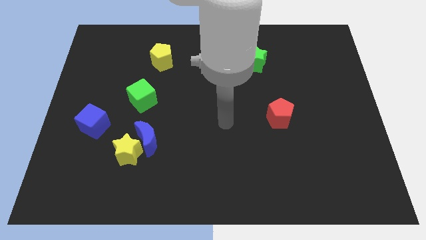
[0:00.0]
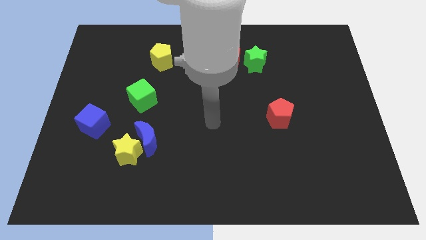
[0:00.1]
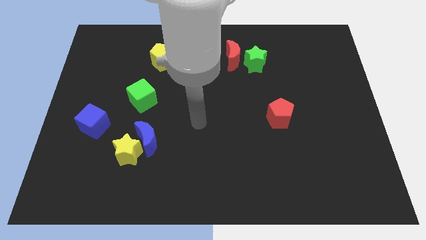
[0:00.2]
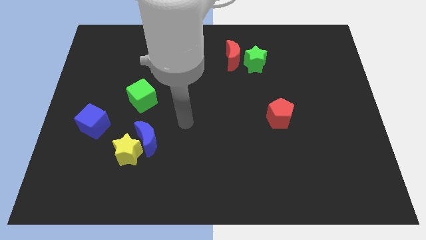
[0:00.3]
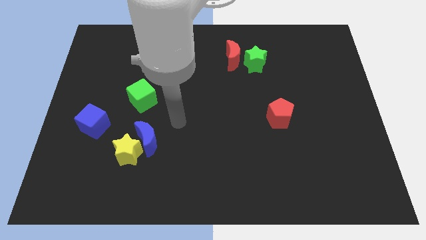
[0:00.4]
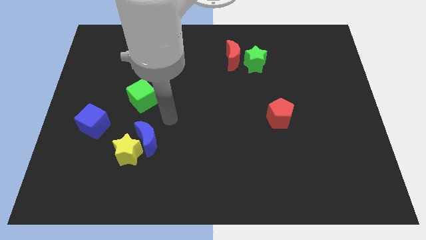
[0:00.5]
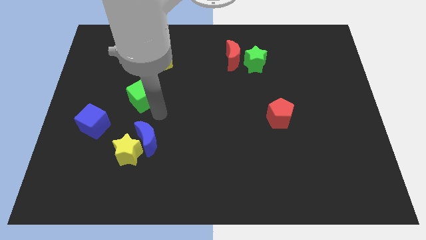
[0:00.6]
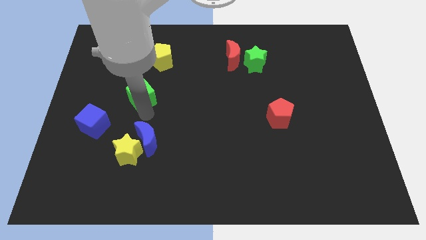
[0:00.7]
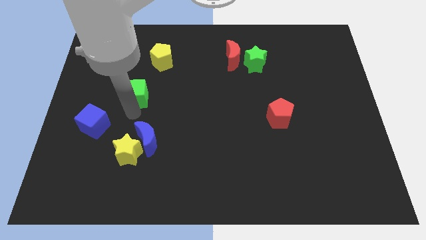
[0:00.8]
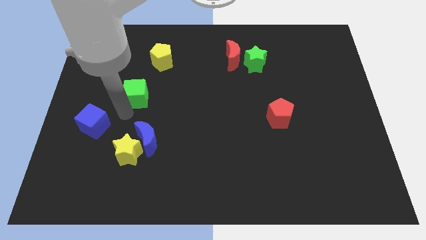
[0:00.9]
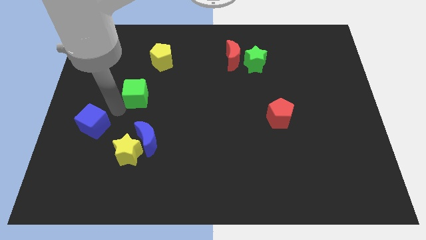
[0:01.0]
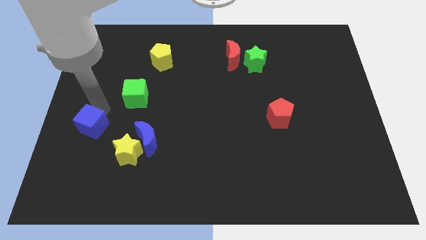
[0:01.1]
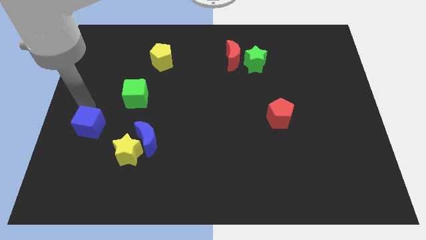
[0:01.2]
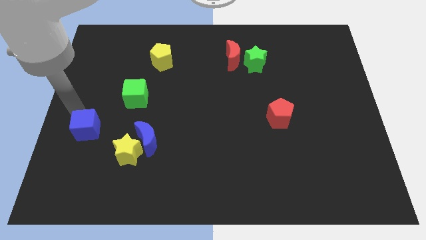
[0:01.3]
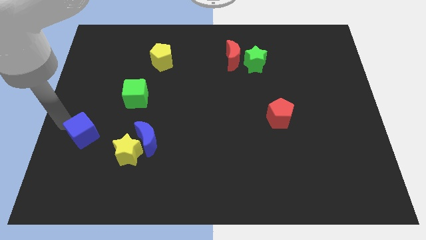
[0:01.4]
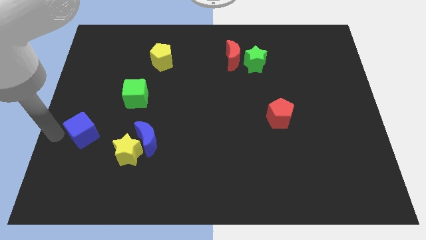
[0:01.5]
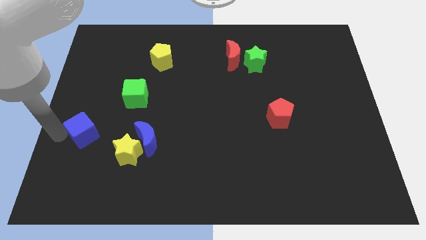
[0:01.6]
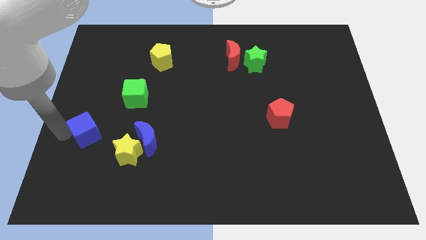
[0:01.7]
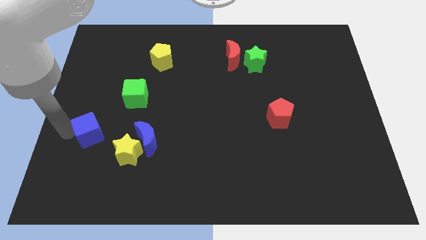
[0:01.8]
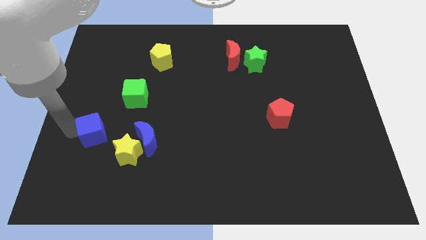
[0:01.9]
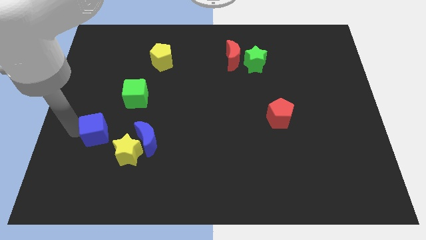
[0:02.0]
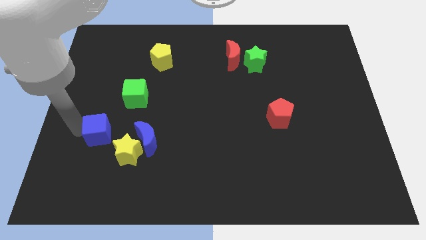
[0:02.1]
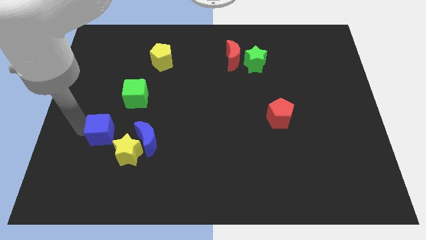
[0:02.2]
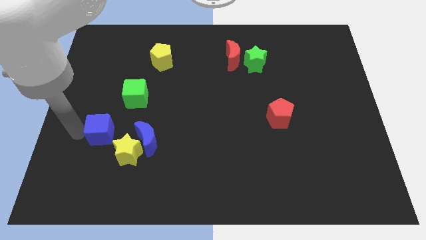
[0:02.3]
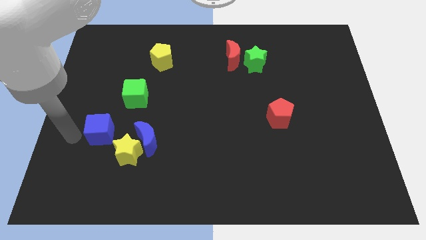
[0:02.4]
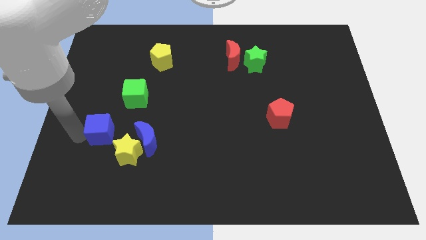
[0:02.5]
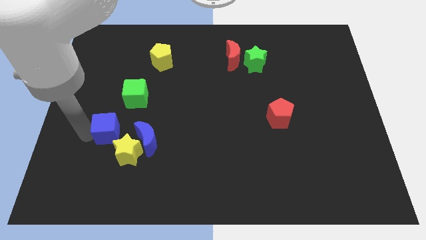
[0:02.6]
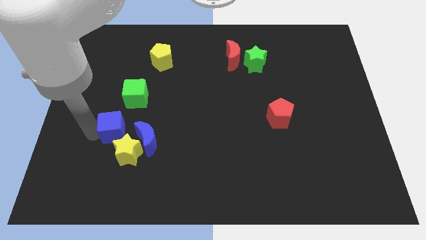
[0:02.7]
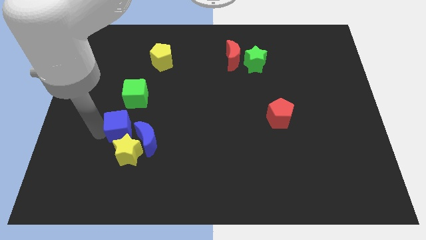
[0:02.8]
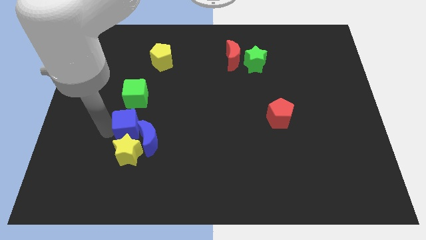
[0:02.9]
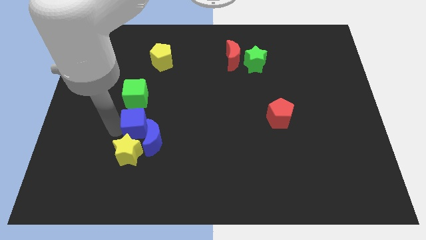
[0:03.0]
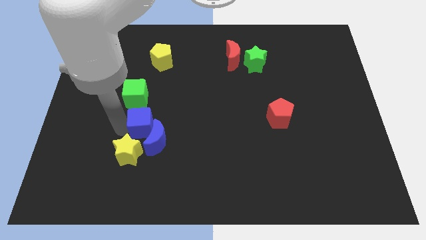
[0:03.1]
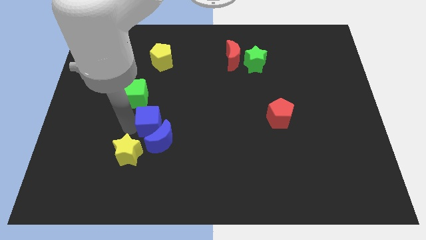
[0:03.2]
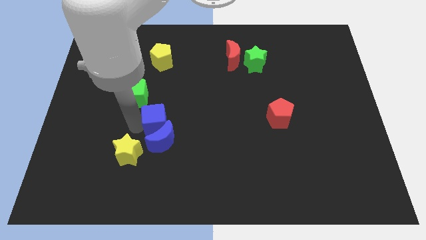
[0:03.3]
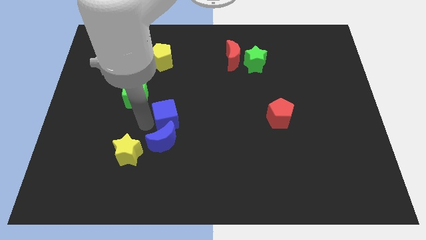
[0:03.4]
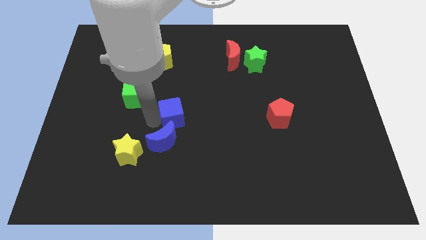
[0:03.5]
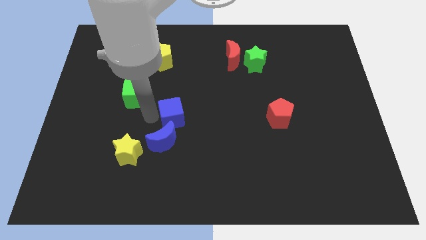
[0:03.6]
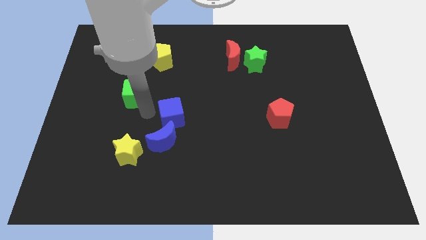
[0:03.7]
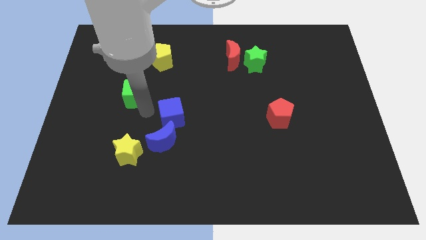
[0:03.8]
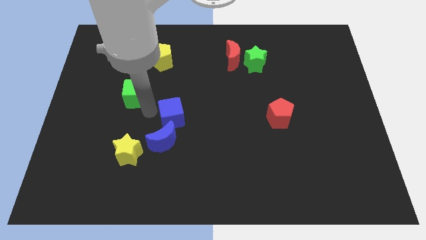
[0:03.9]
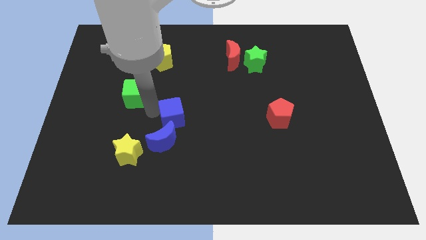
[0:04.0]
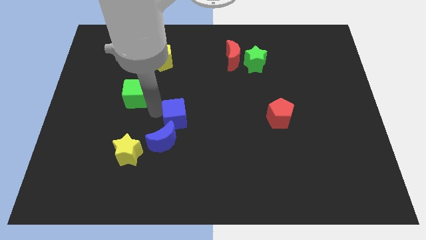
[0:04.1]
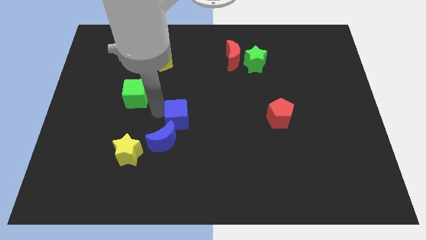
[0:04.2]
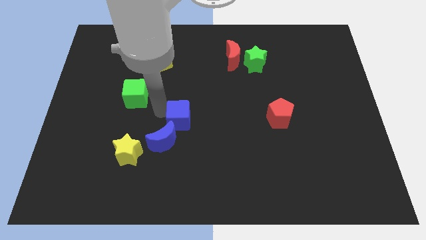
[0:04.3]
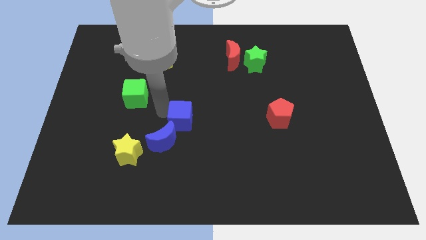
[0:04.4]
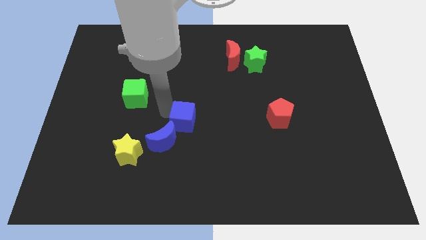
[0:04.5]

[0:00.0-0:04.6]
push the blue cube to the right

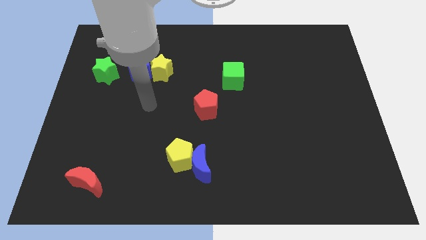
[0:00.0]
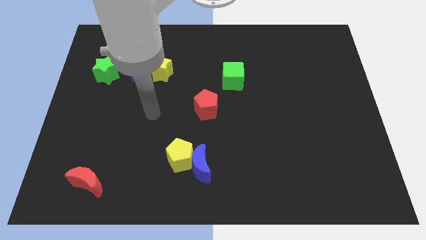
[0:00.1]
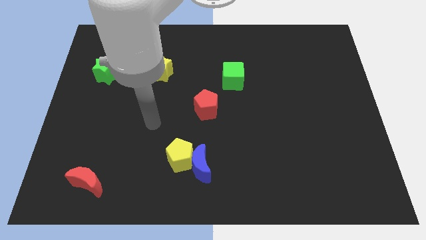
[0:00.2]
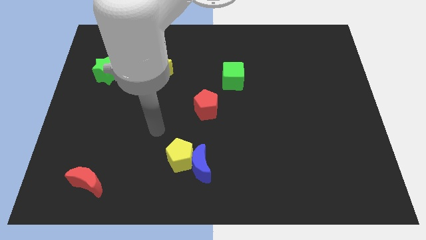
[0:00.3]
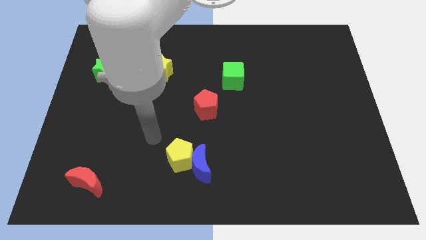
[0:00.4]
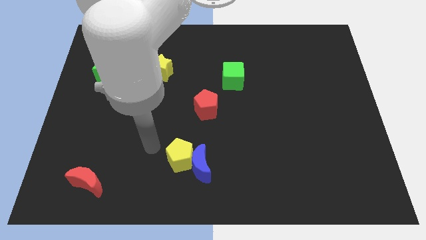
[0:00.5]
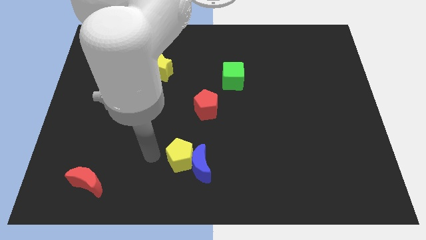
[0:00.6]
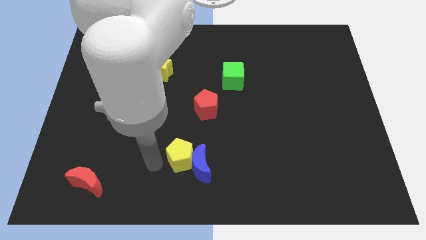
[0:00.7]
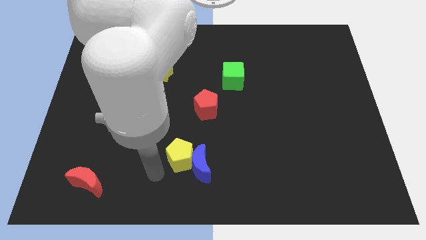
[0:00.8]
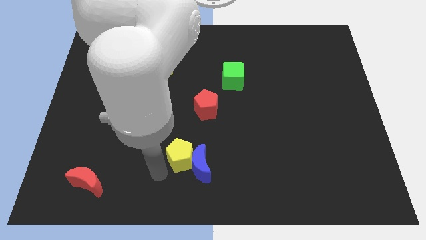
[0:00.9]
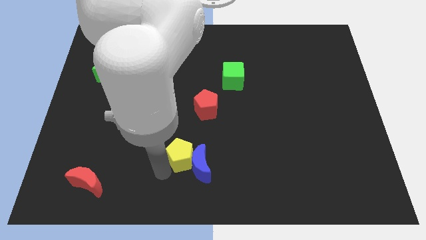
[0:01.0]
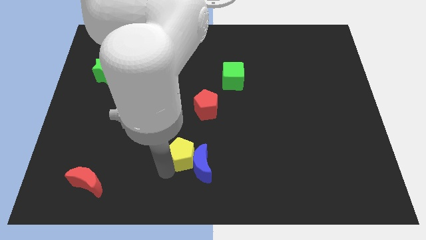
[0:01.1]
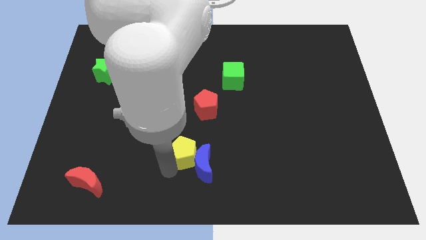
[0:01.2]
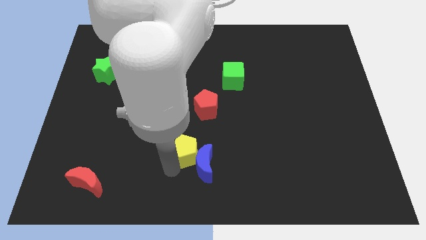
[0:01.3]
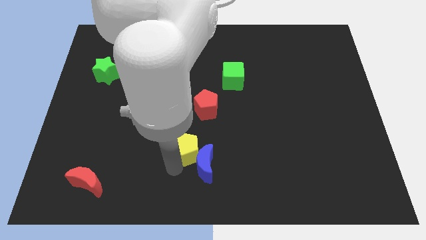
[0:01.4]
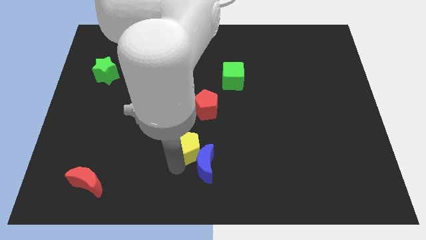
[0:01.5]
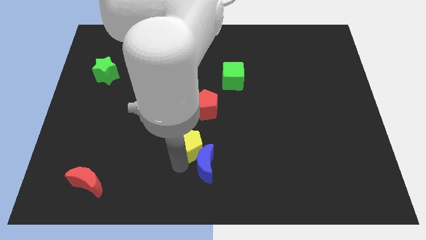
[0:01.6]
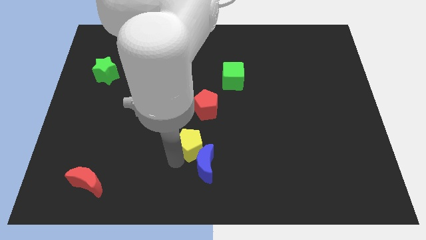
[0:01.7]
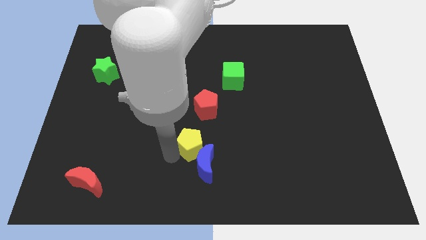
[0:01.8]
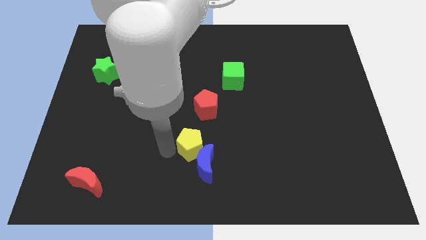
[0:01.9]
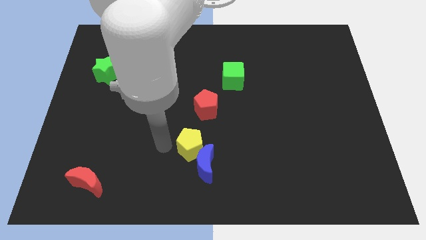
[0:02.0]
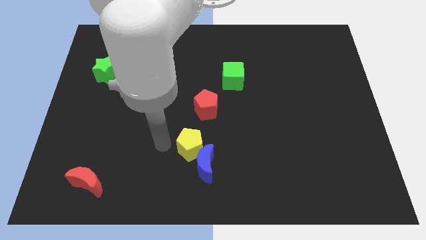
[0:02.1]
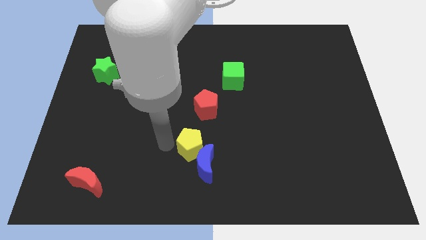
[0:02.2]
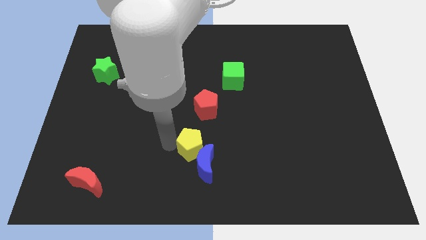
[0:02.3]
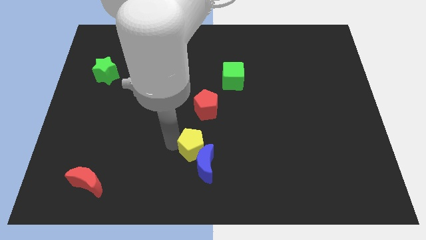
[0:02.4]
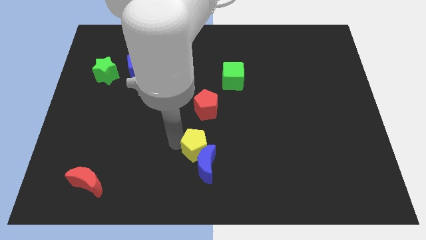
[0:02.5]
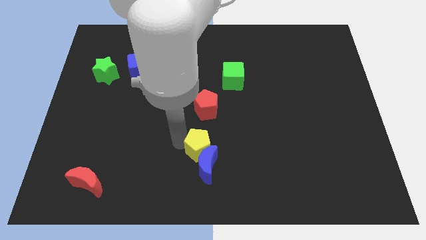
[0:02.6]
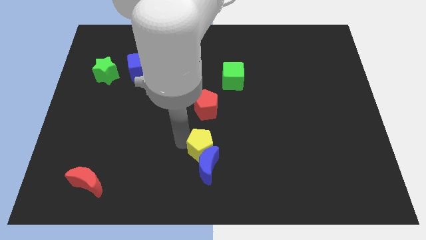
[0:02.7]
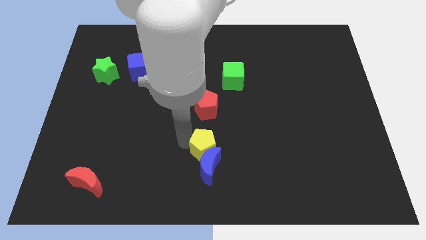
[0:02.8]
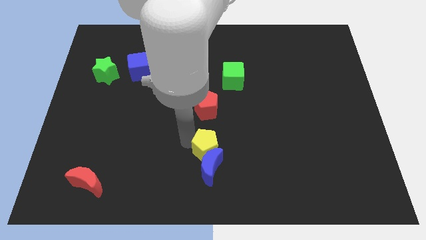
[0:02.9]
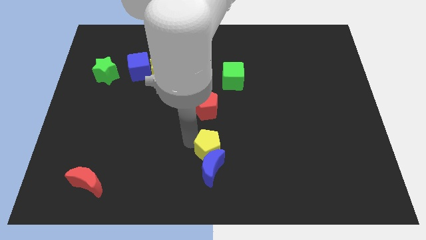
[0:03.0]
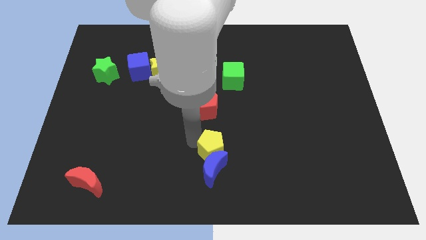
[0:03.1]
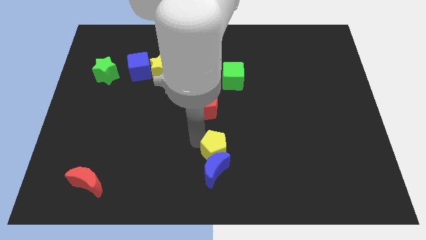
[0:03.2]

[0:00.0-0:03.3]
slide the yellow pentagon a little bit right
